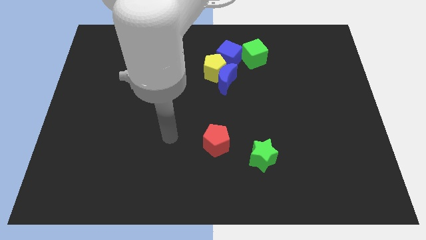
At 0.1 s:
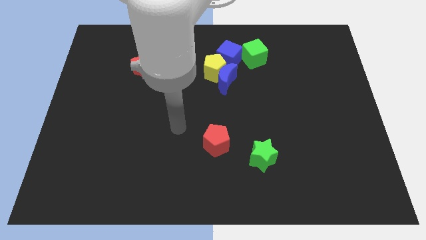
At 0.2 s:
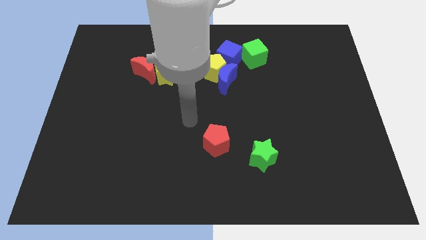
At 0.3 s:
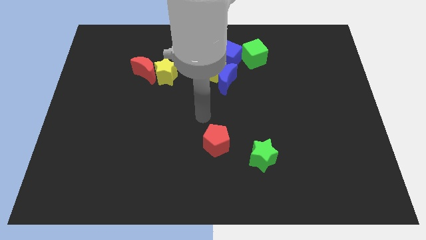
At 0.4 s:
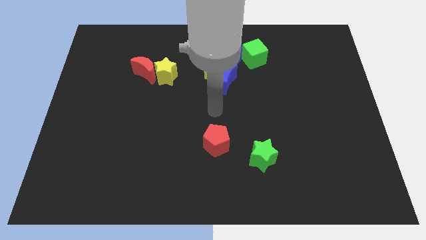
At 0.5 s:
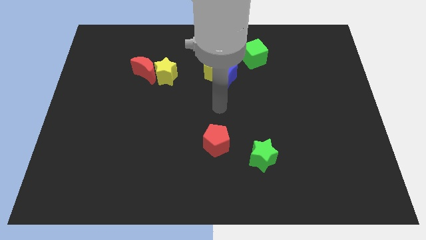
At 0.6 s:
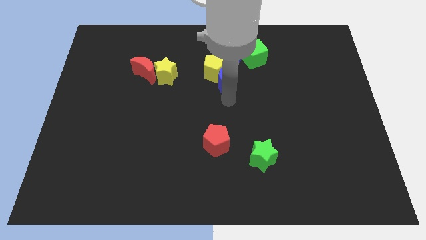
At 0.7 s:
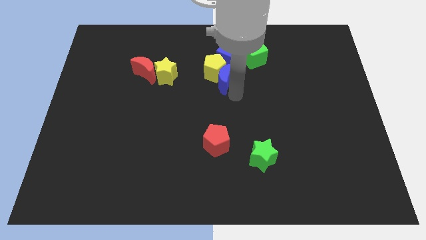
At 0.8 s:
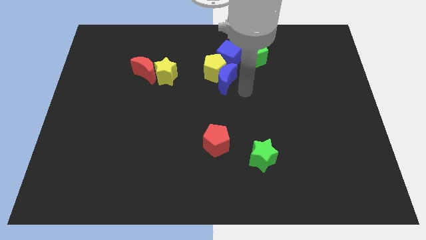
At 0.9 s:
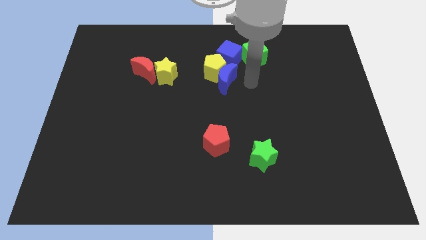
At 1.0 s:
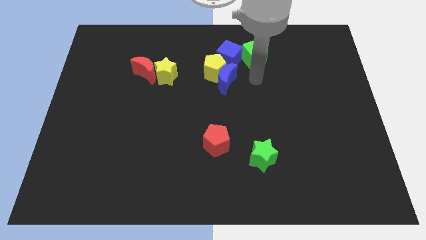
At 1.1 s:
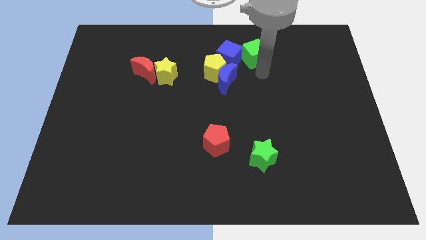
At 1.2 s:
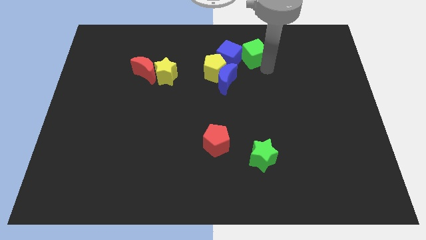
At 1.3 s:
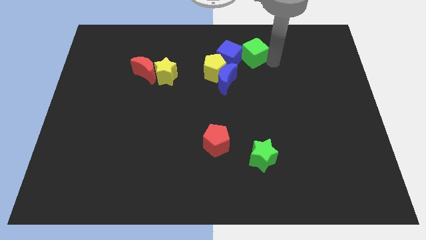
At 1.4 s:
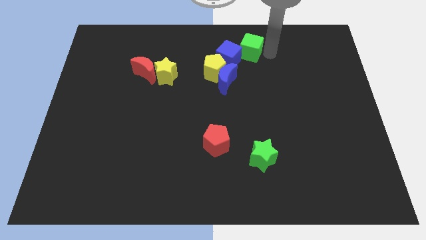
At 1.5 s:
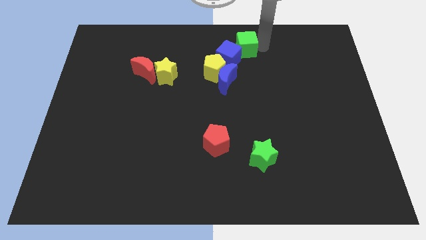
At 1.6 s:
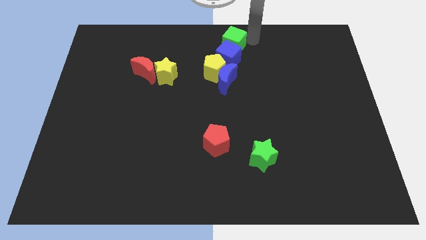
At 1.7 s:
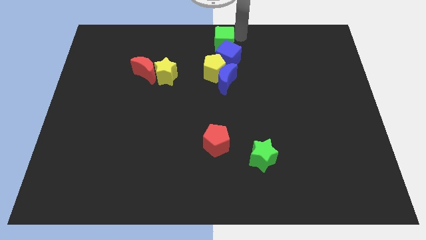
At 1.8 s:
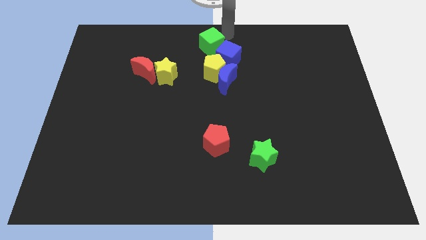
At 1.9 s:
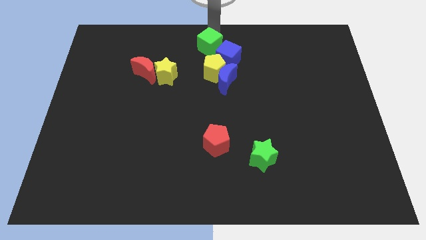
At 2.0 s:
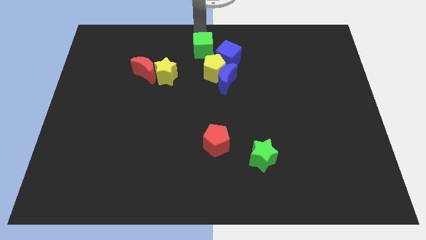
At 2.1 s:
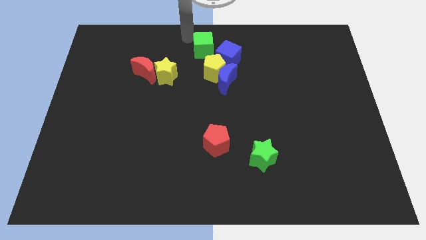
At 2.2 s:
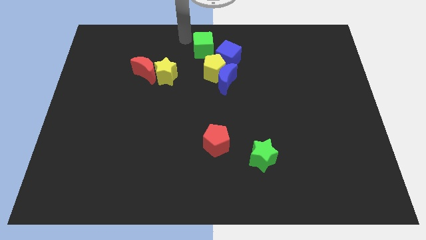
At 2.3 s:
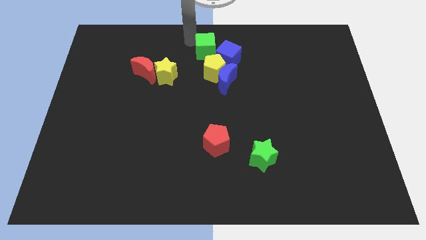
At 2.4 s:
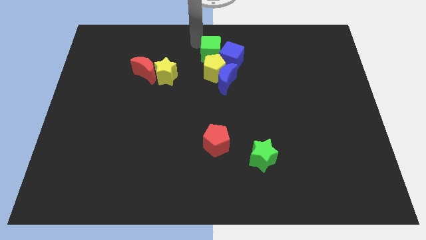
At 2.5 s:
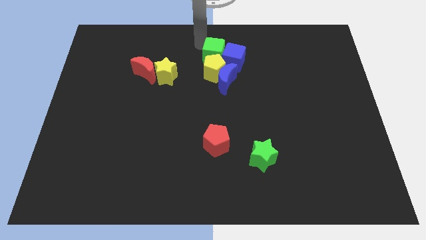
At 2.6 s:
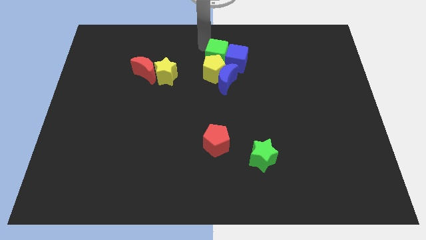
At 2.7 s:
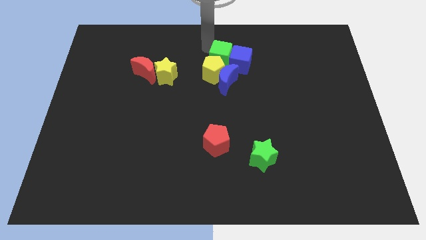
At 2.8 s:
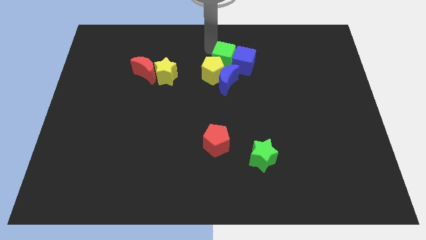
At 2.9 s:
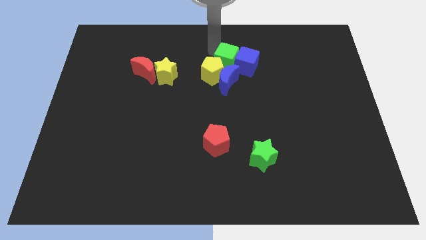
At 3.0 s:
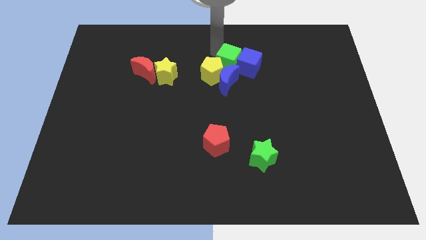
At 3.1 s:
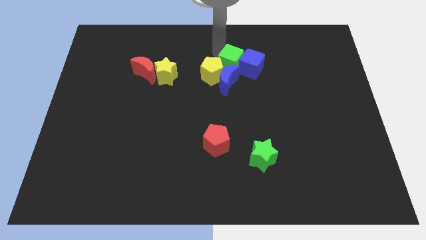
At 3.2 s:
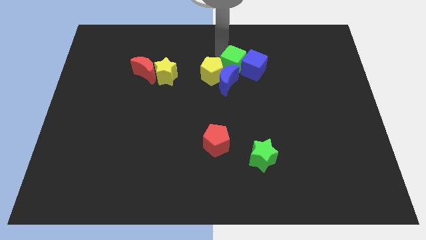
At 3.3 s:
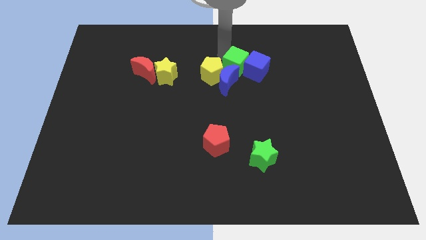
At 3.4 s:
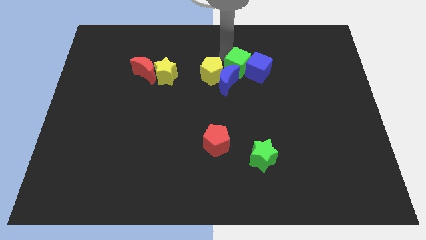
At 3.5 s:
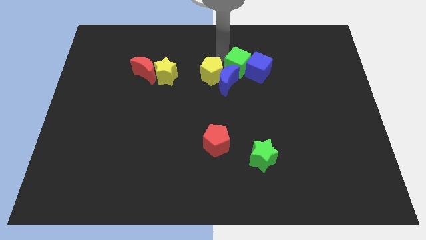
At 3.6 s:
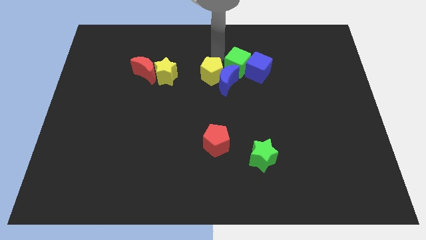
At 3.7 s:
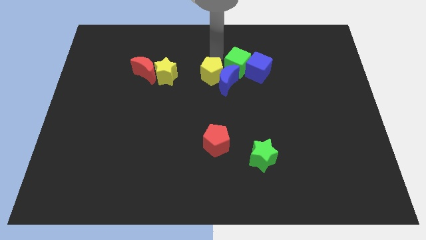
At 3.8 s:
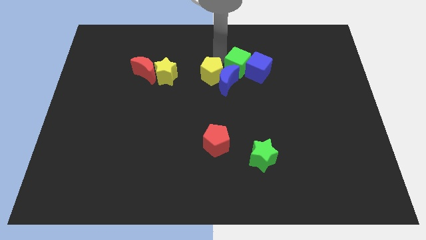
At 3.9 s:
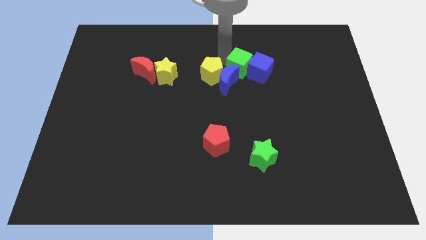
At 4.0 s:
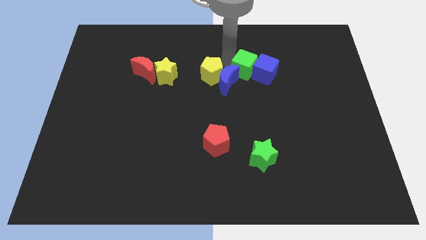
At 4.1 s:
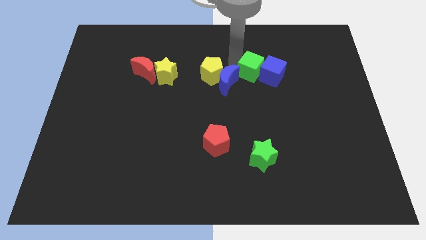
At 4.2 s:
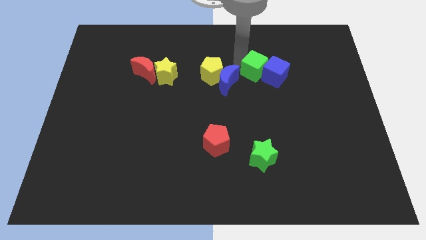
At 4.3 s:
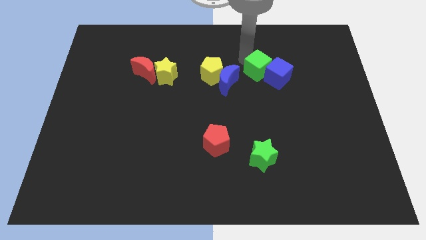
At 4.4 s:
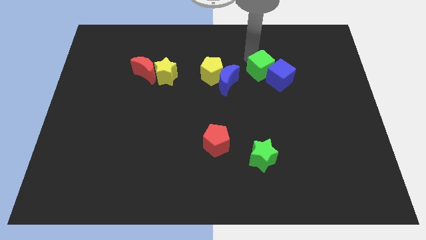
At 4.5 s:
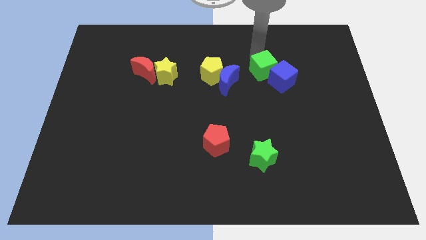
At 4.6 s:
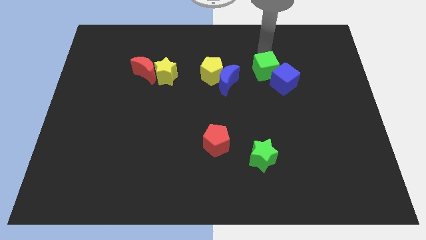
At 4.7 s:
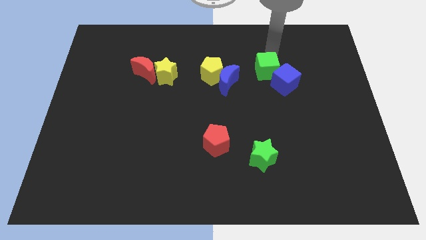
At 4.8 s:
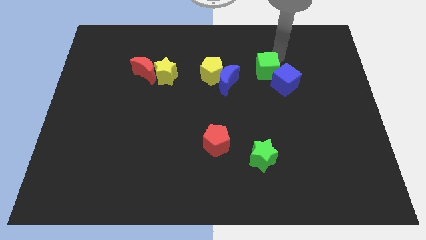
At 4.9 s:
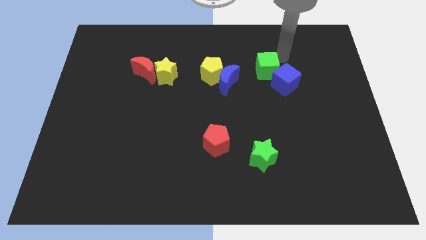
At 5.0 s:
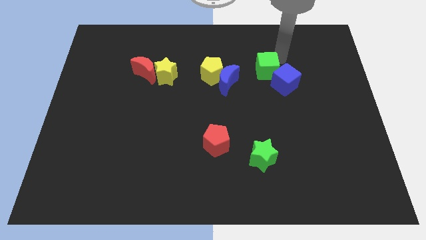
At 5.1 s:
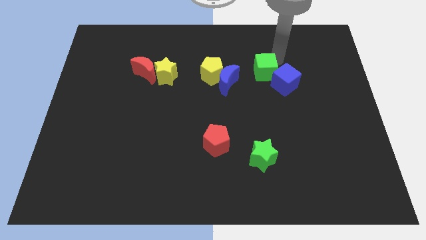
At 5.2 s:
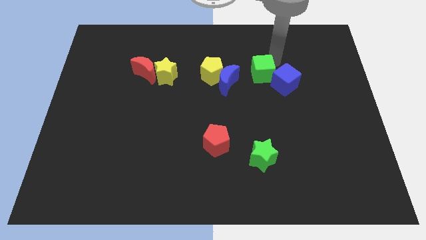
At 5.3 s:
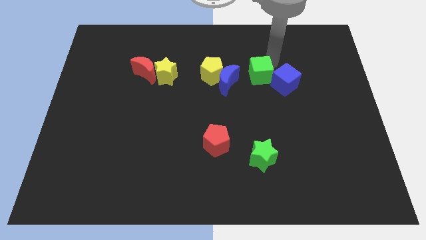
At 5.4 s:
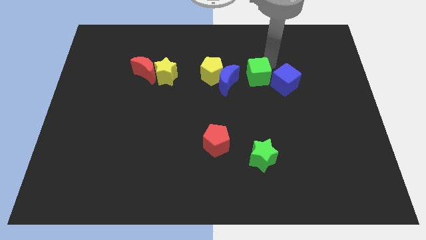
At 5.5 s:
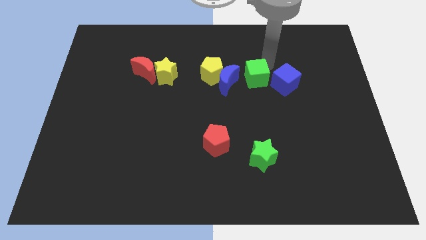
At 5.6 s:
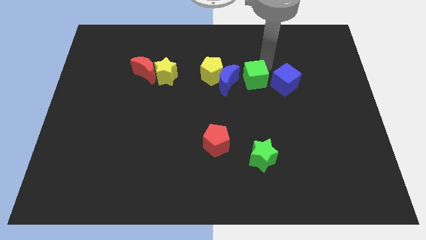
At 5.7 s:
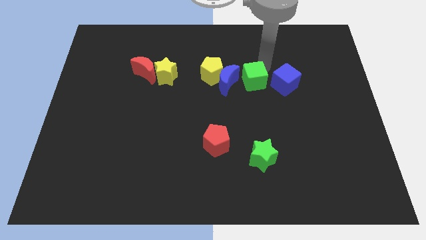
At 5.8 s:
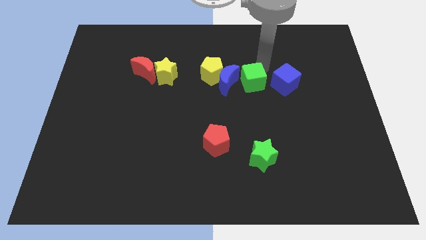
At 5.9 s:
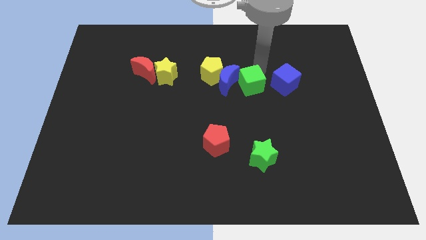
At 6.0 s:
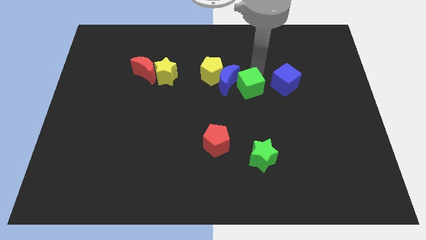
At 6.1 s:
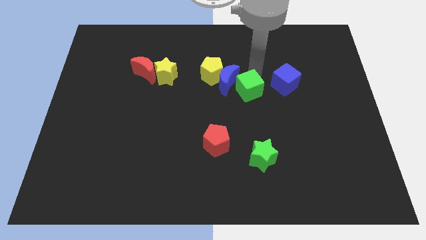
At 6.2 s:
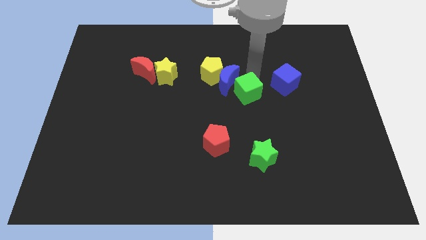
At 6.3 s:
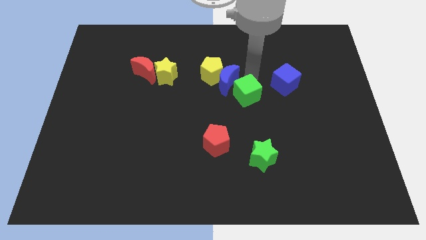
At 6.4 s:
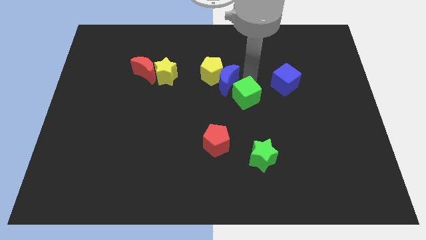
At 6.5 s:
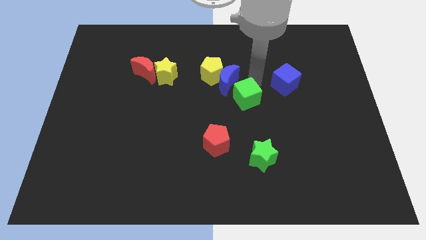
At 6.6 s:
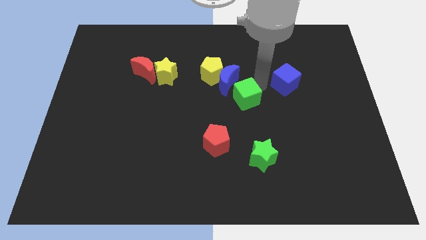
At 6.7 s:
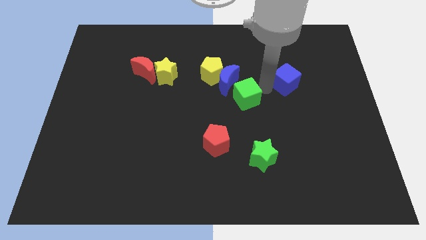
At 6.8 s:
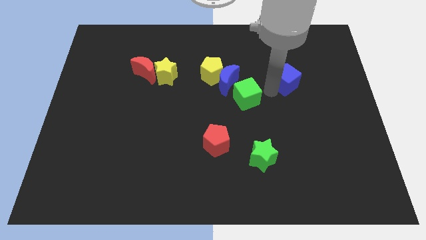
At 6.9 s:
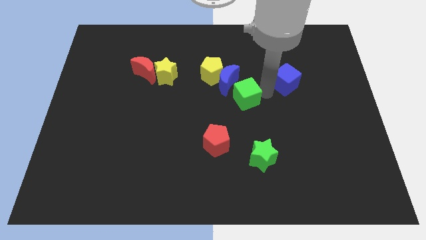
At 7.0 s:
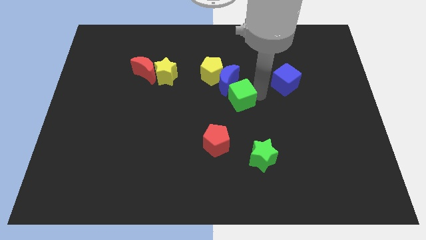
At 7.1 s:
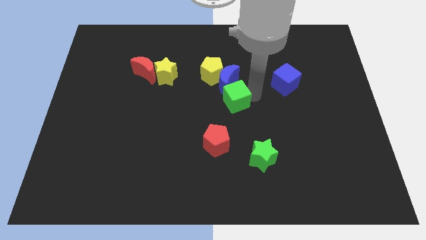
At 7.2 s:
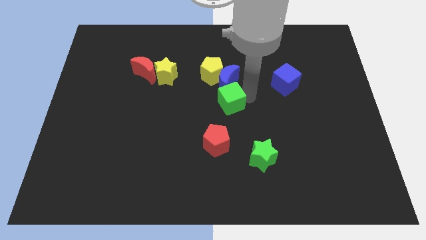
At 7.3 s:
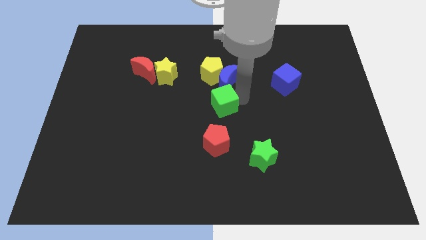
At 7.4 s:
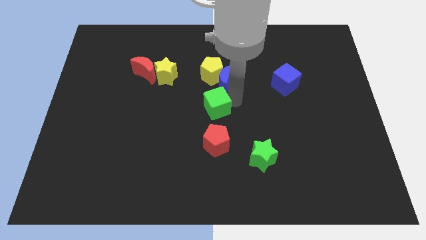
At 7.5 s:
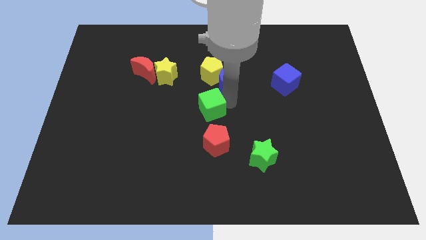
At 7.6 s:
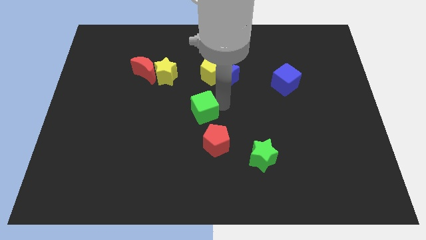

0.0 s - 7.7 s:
slide the green cube down and to the left

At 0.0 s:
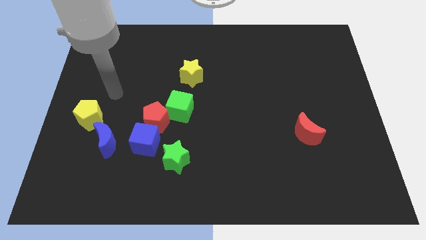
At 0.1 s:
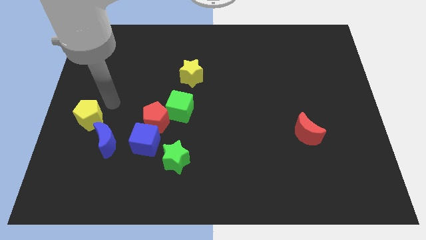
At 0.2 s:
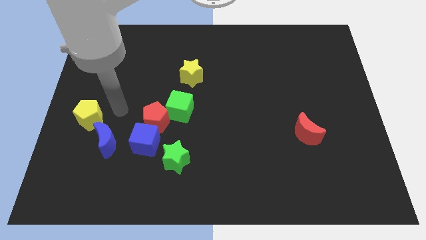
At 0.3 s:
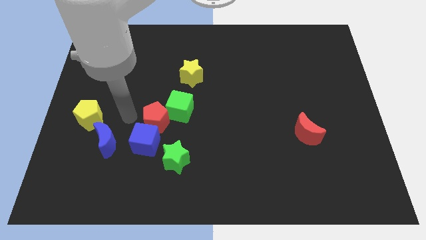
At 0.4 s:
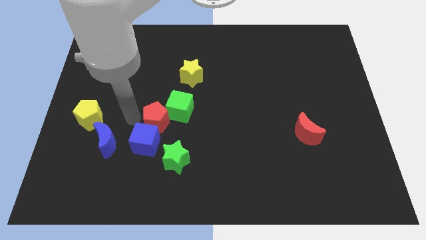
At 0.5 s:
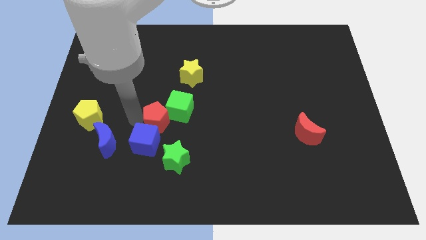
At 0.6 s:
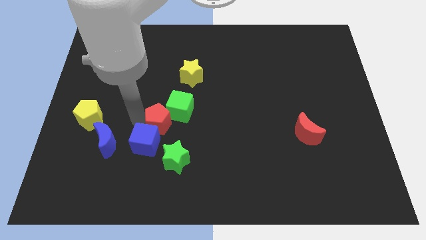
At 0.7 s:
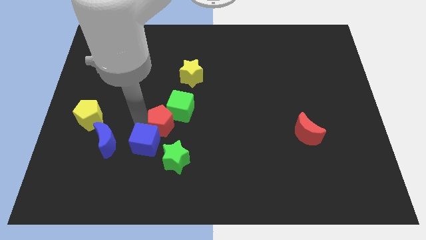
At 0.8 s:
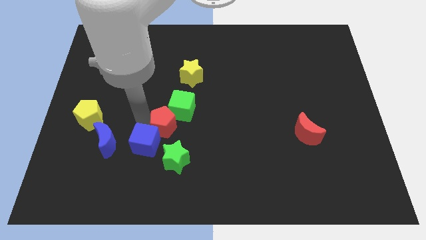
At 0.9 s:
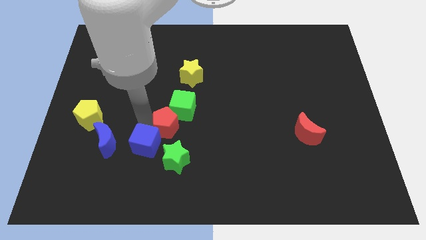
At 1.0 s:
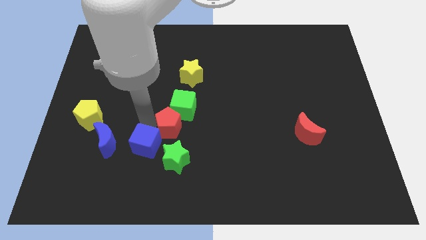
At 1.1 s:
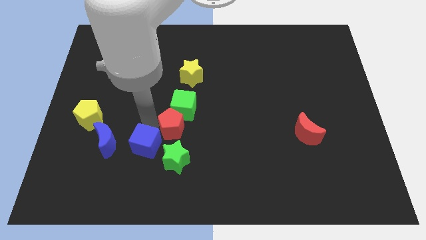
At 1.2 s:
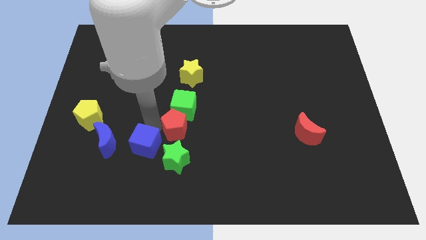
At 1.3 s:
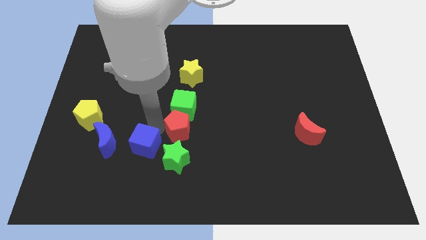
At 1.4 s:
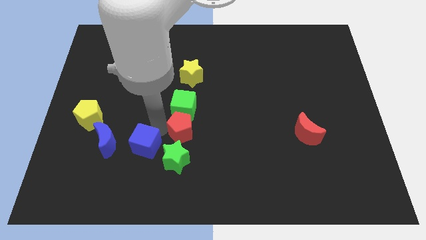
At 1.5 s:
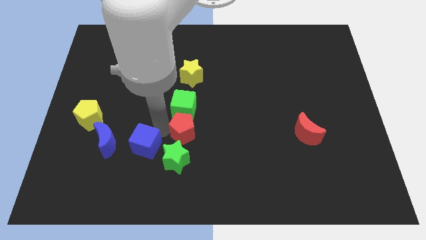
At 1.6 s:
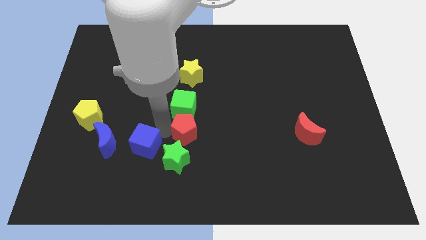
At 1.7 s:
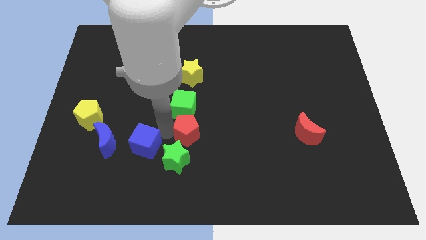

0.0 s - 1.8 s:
slide the red pentagon slightly to the right
